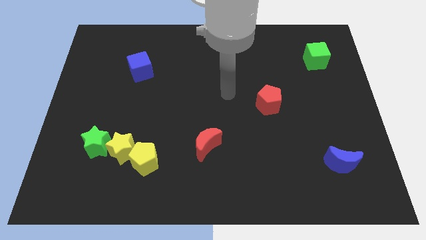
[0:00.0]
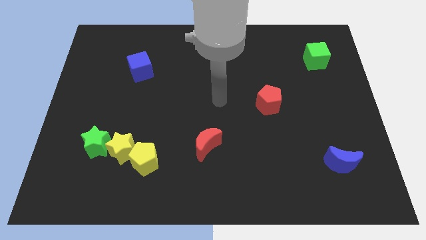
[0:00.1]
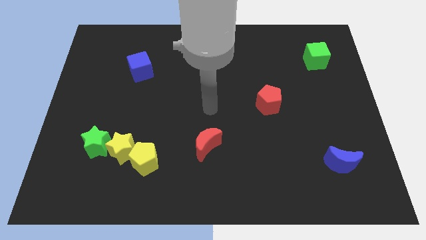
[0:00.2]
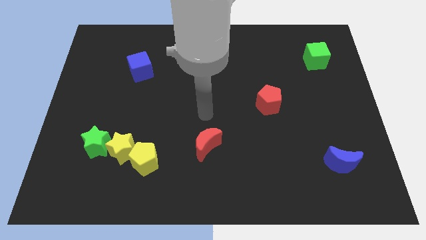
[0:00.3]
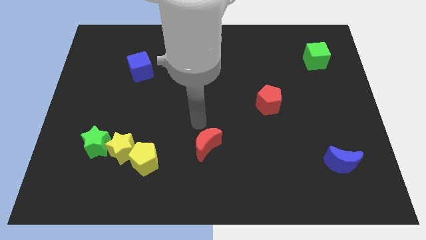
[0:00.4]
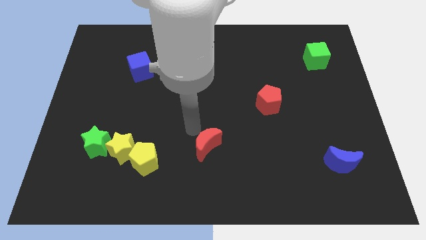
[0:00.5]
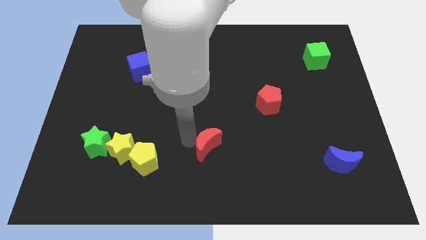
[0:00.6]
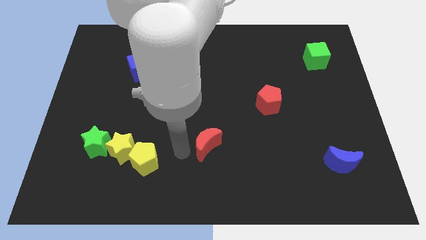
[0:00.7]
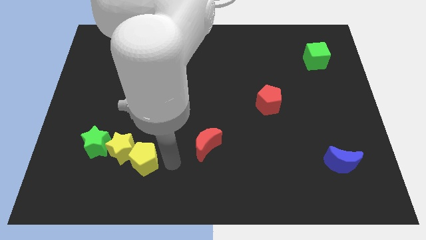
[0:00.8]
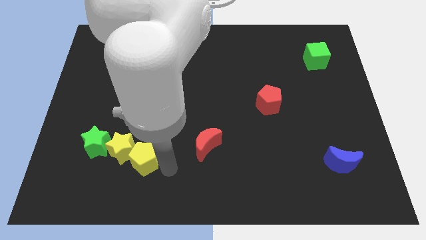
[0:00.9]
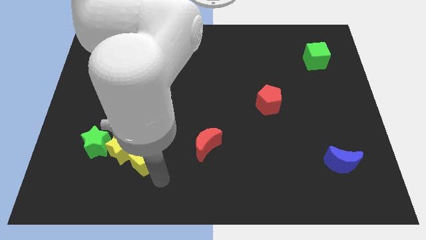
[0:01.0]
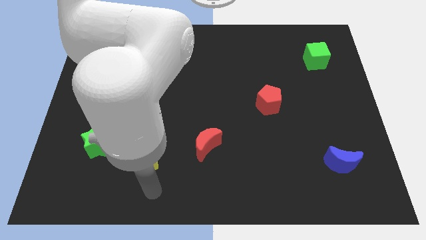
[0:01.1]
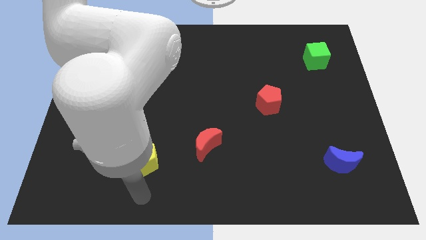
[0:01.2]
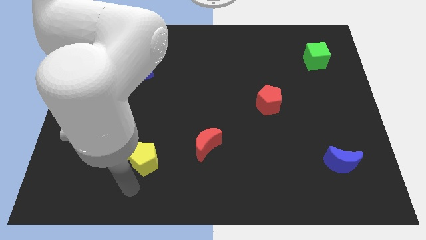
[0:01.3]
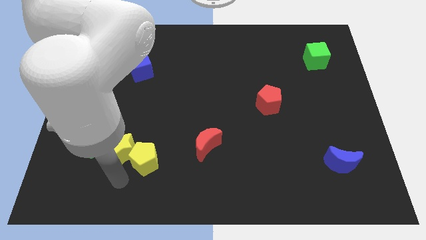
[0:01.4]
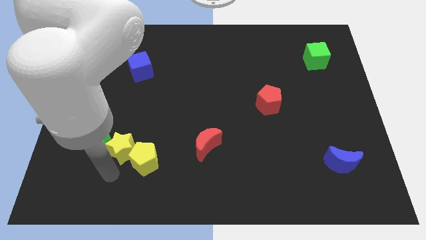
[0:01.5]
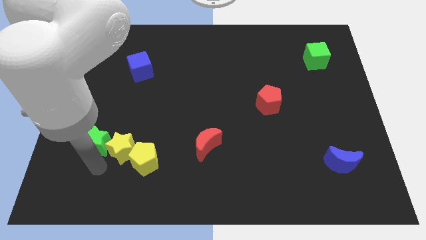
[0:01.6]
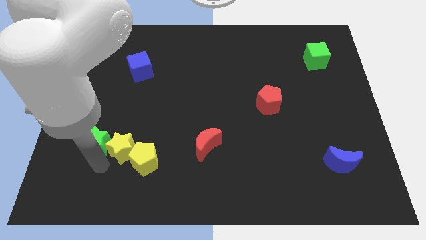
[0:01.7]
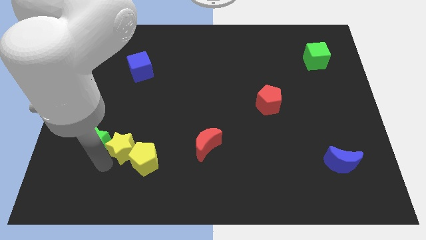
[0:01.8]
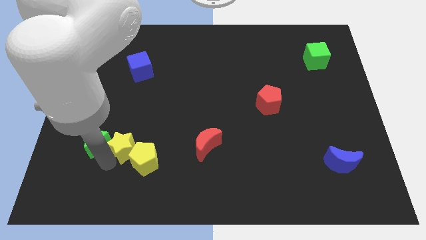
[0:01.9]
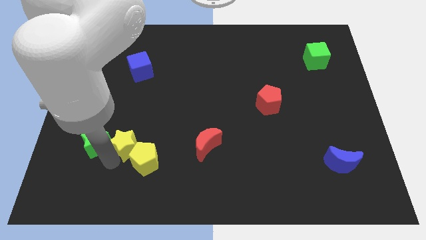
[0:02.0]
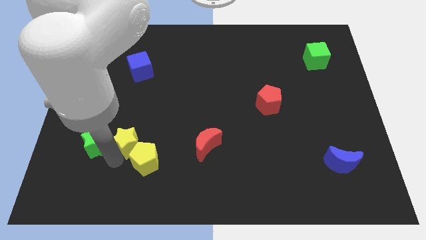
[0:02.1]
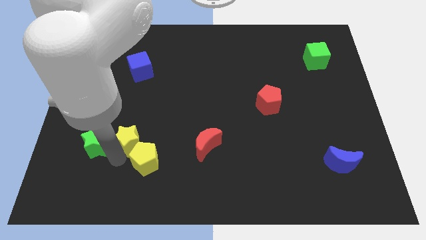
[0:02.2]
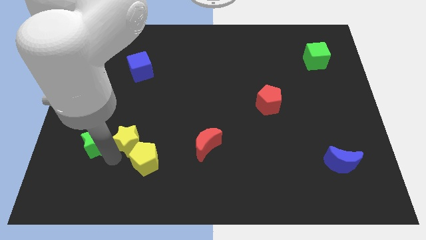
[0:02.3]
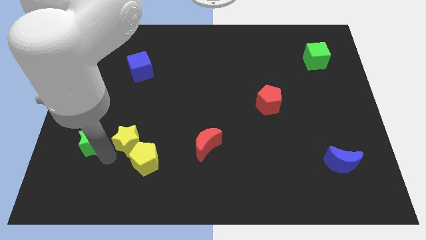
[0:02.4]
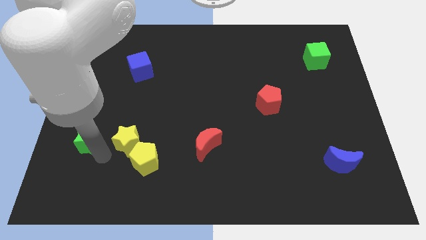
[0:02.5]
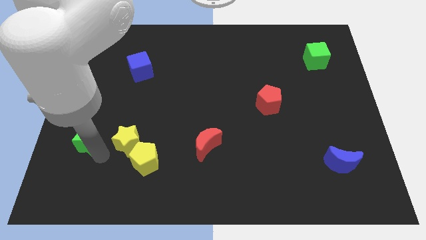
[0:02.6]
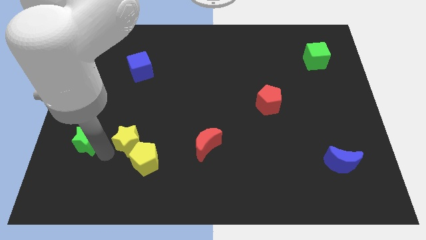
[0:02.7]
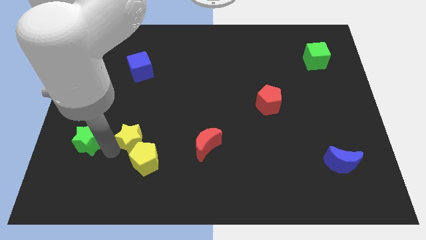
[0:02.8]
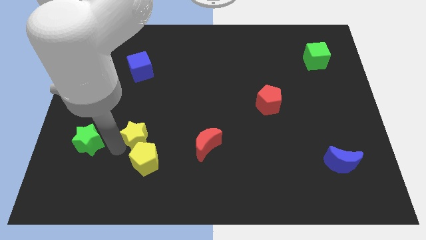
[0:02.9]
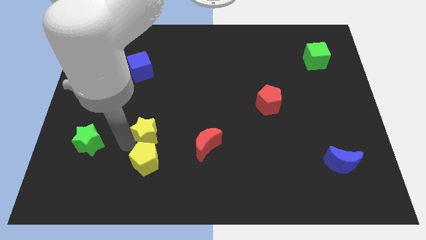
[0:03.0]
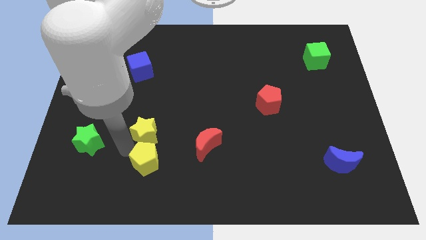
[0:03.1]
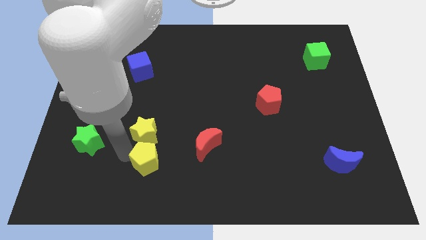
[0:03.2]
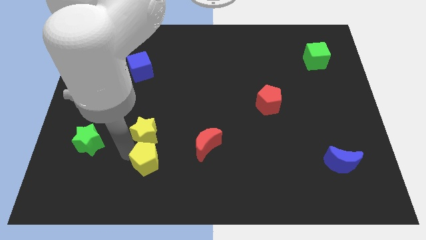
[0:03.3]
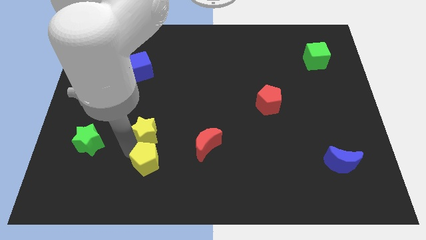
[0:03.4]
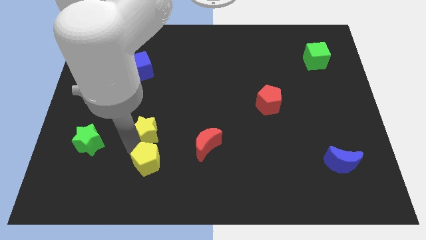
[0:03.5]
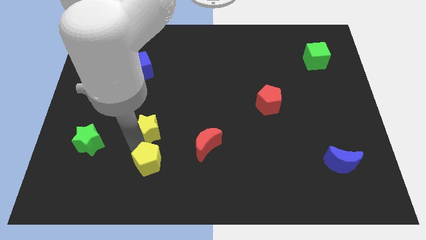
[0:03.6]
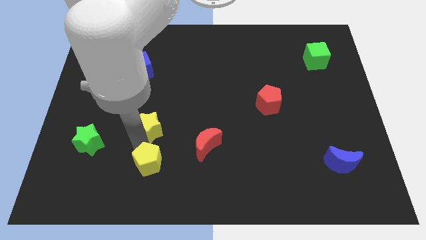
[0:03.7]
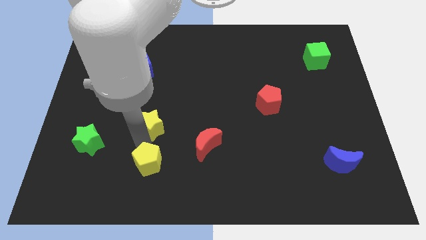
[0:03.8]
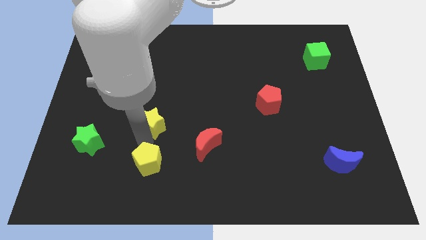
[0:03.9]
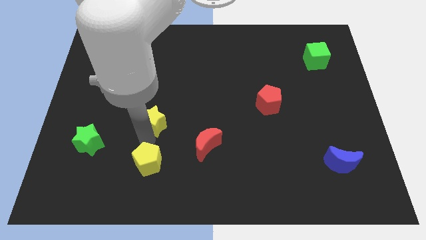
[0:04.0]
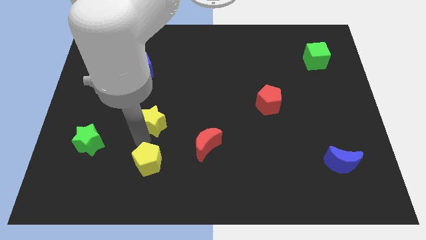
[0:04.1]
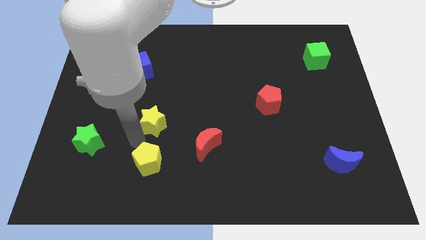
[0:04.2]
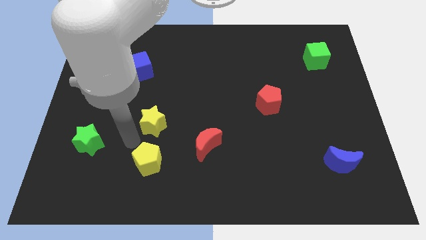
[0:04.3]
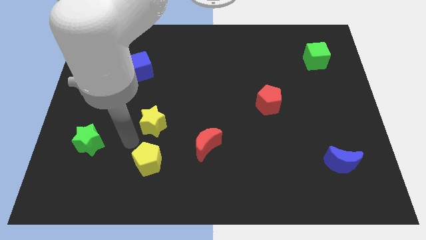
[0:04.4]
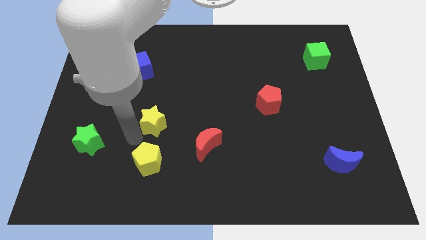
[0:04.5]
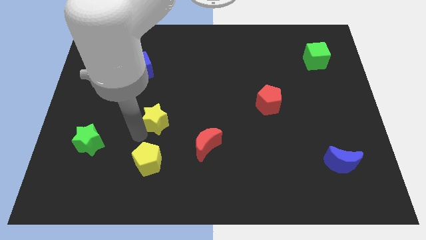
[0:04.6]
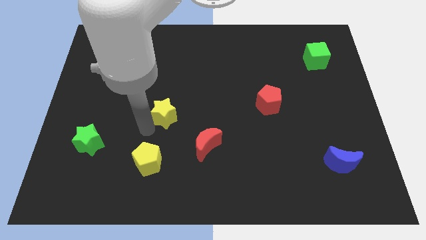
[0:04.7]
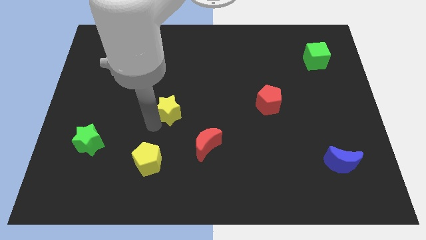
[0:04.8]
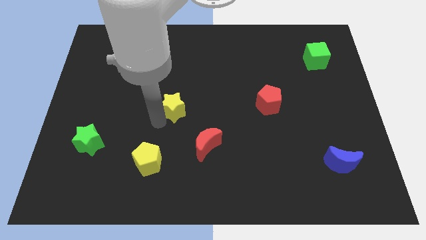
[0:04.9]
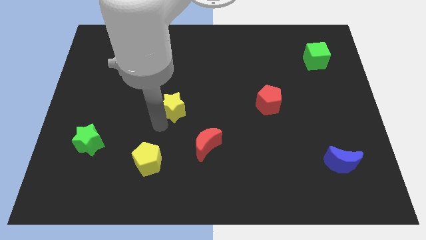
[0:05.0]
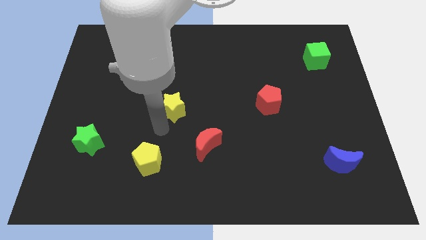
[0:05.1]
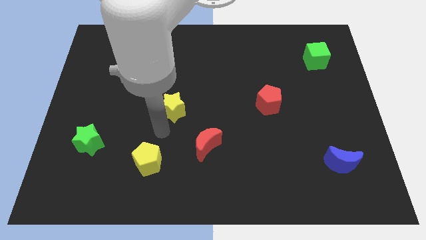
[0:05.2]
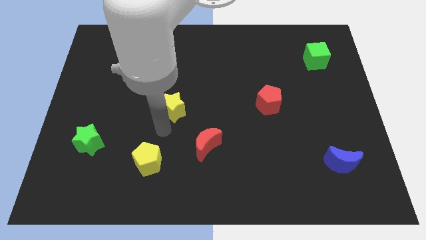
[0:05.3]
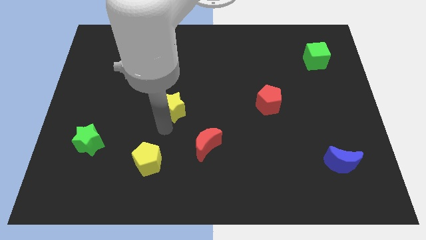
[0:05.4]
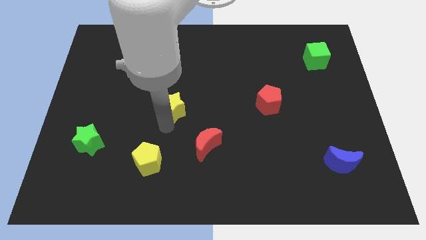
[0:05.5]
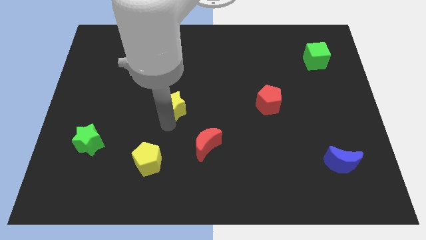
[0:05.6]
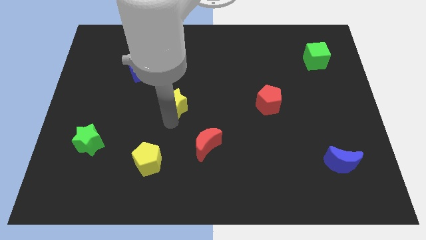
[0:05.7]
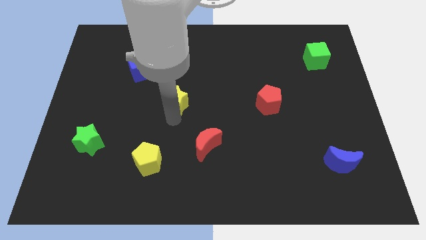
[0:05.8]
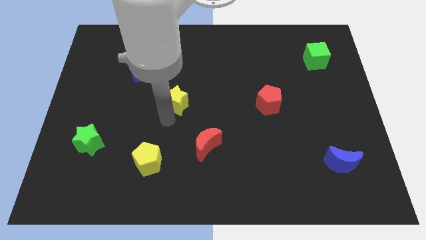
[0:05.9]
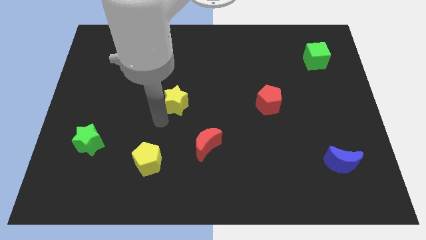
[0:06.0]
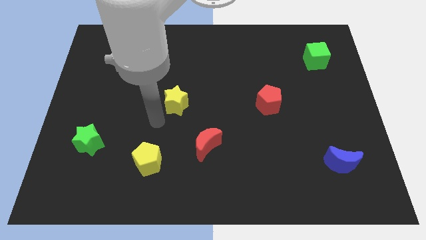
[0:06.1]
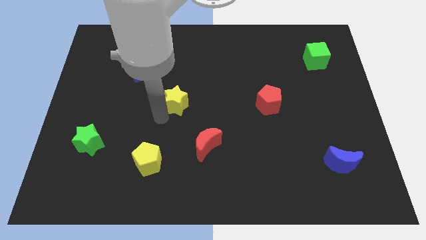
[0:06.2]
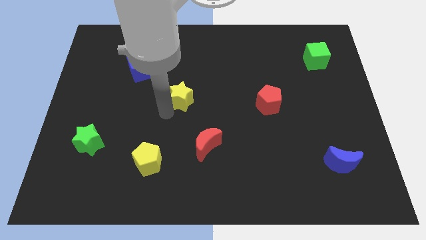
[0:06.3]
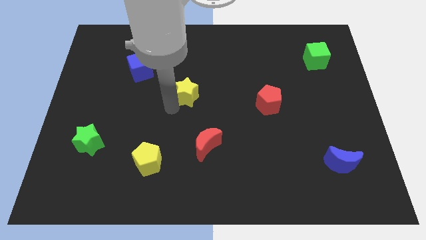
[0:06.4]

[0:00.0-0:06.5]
slide the yellow star upwards and then right

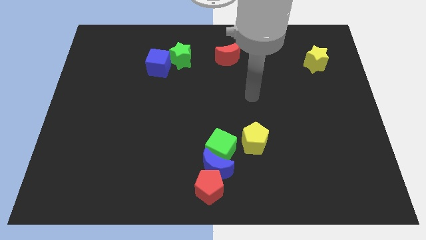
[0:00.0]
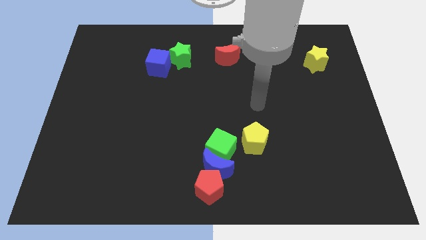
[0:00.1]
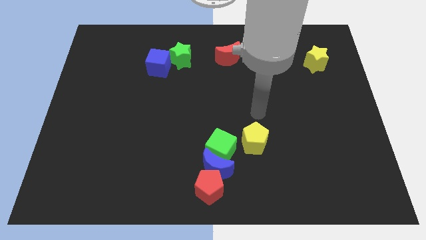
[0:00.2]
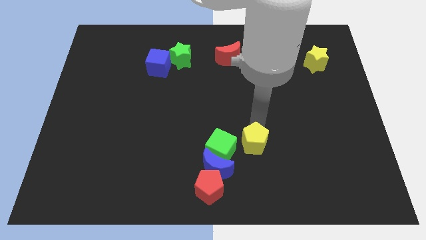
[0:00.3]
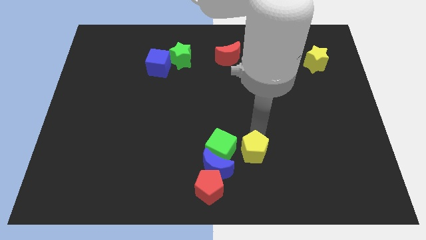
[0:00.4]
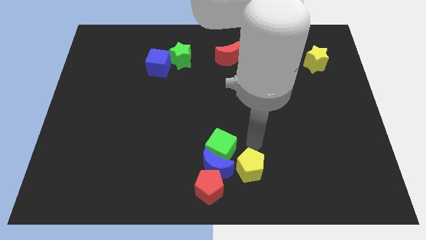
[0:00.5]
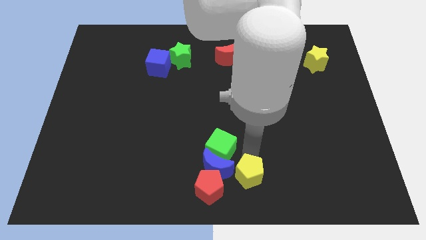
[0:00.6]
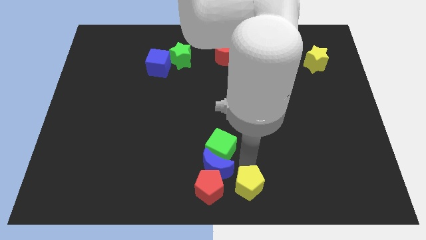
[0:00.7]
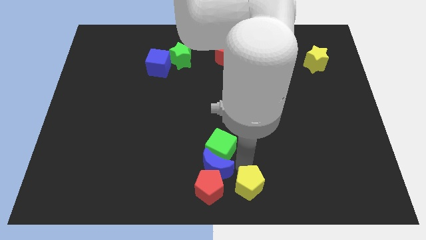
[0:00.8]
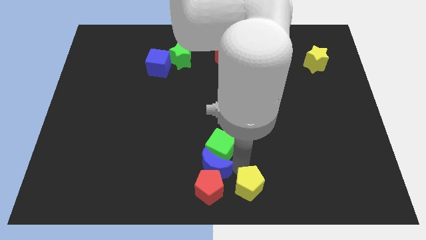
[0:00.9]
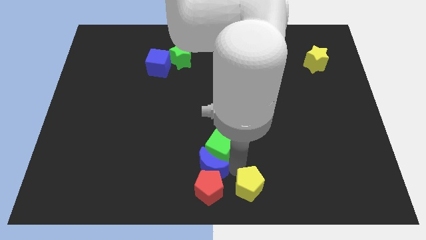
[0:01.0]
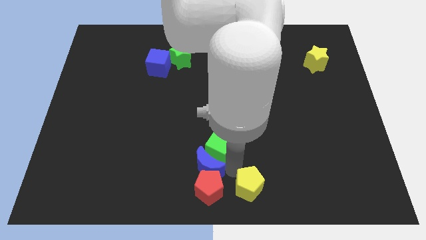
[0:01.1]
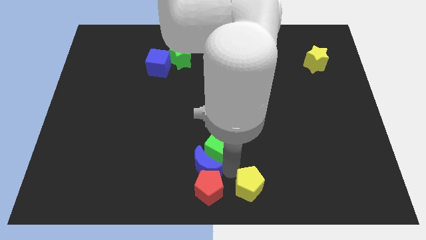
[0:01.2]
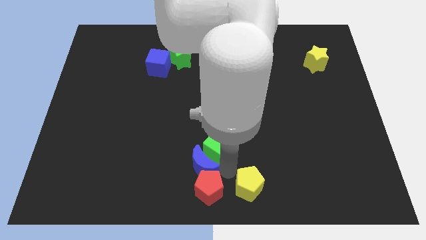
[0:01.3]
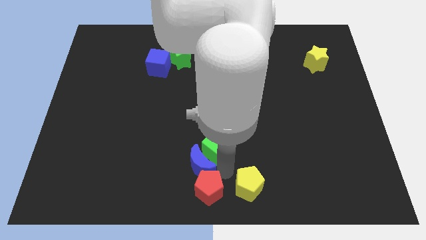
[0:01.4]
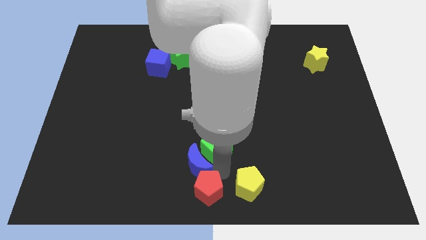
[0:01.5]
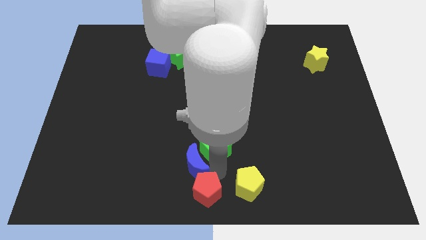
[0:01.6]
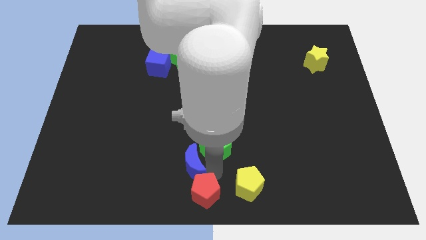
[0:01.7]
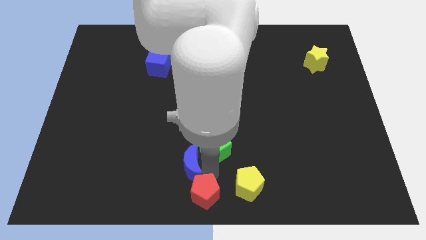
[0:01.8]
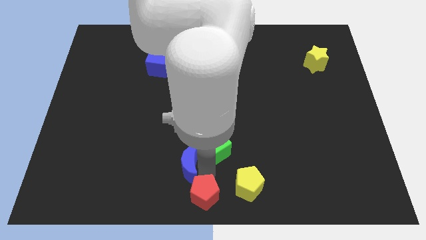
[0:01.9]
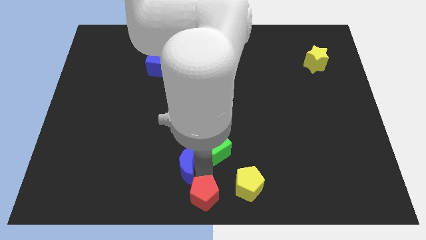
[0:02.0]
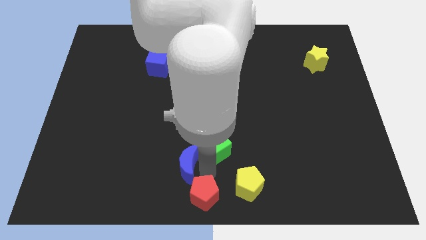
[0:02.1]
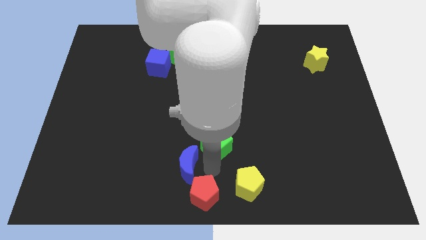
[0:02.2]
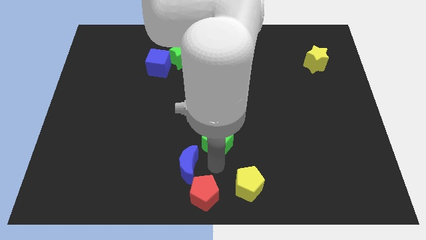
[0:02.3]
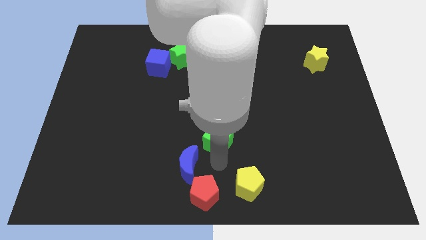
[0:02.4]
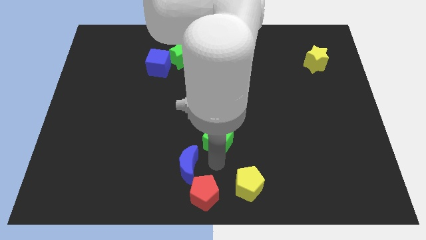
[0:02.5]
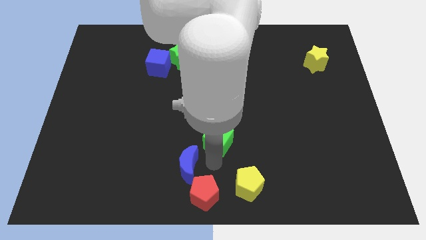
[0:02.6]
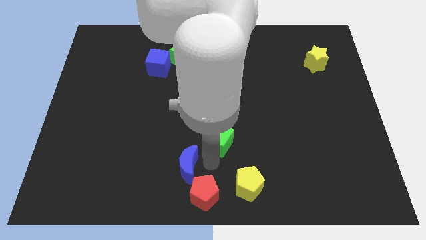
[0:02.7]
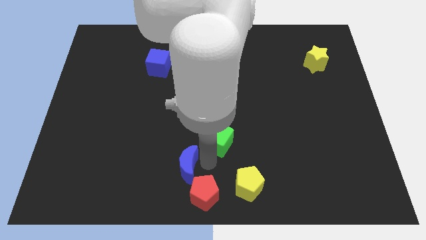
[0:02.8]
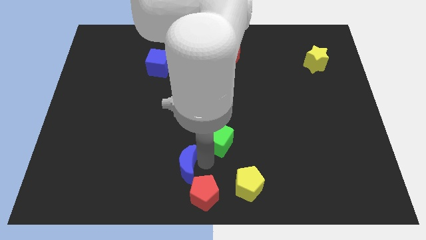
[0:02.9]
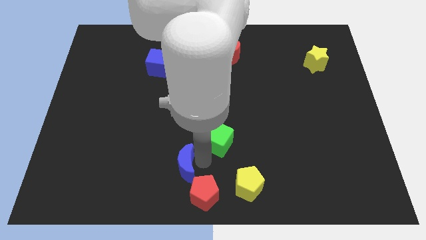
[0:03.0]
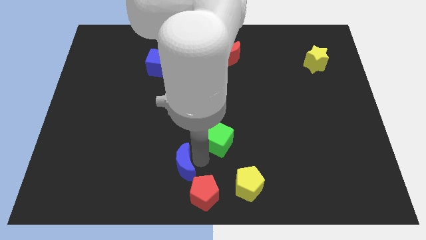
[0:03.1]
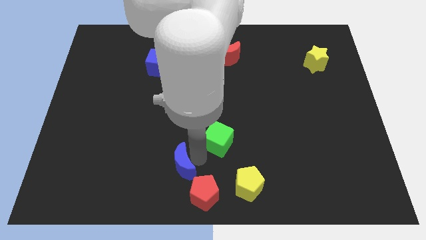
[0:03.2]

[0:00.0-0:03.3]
move the blue moon a little left
